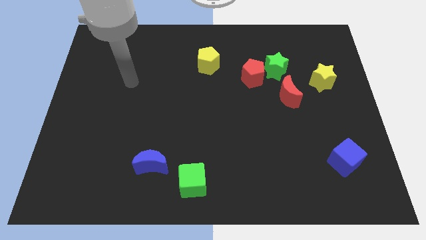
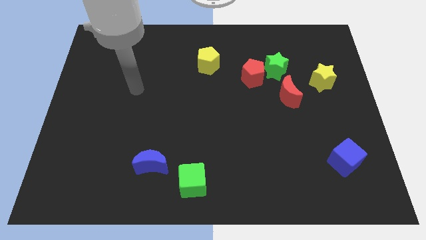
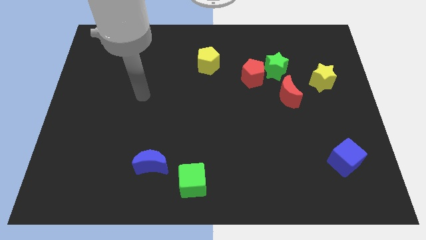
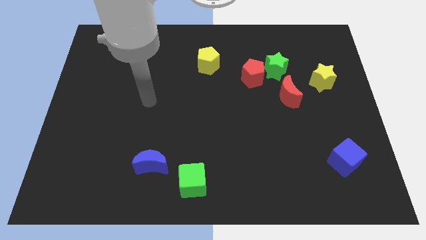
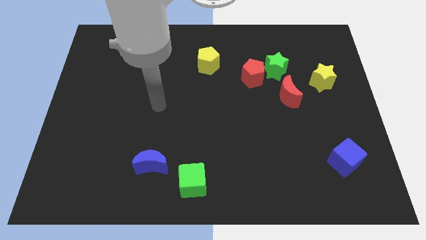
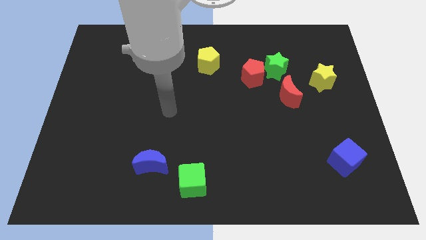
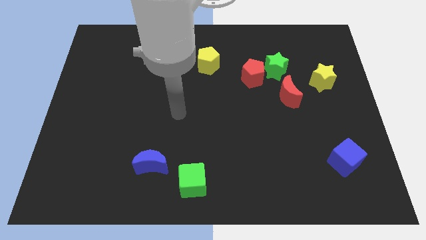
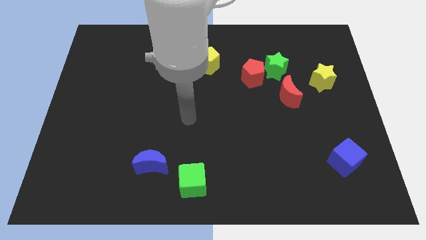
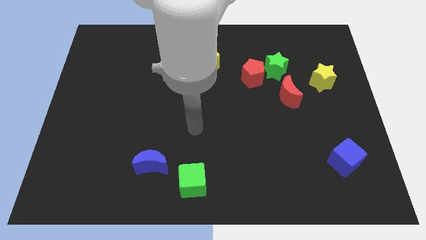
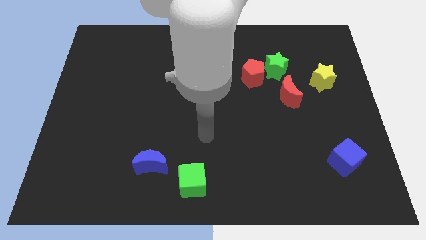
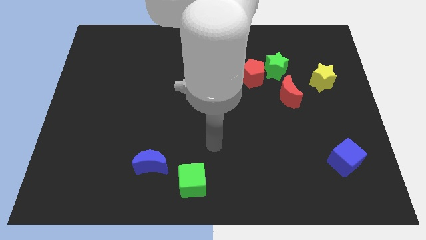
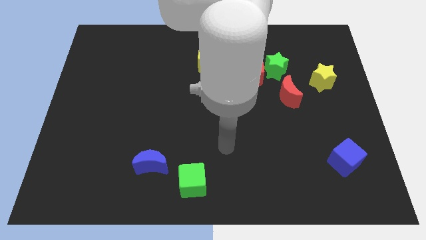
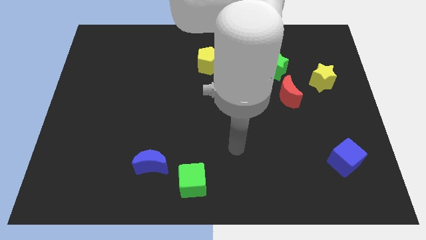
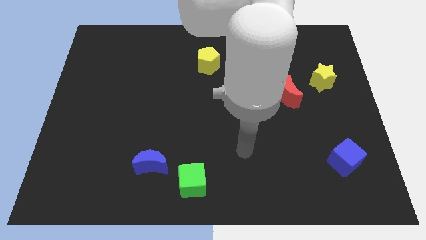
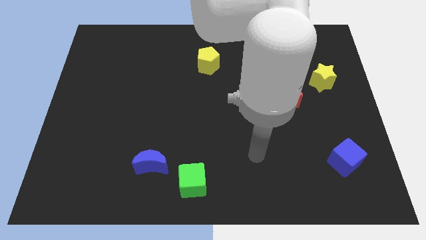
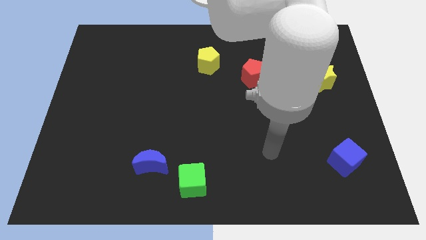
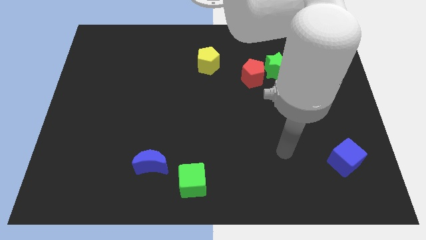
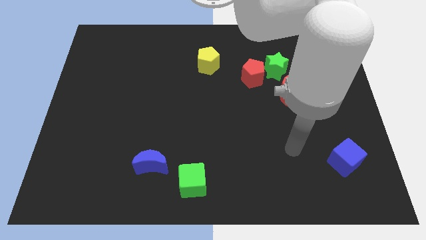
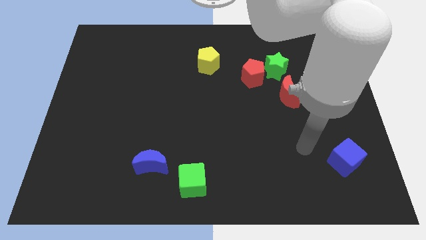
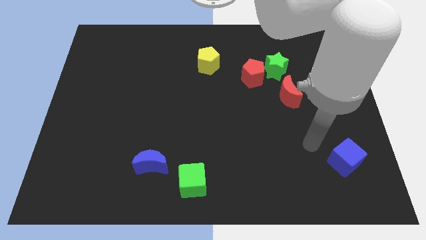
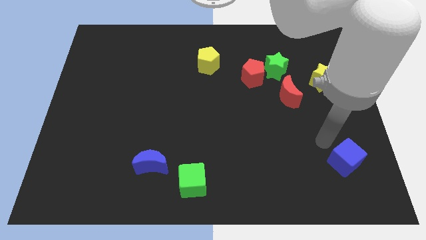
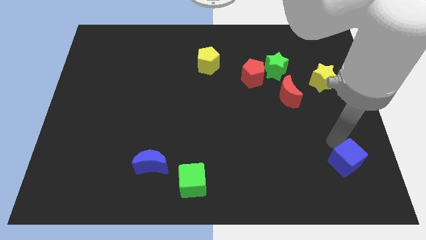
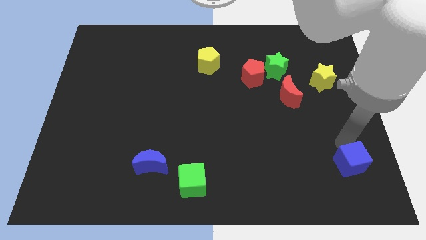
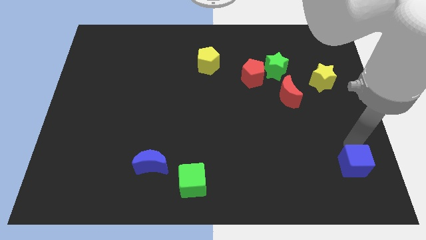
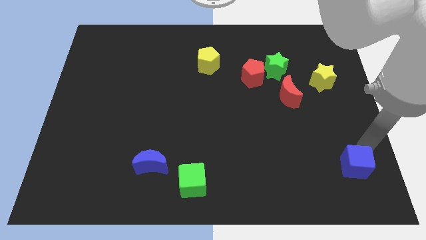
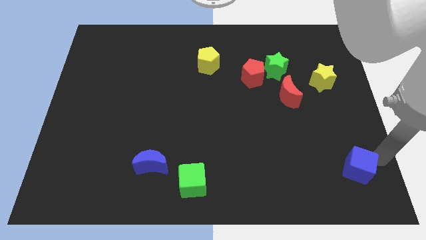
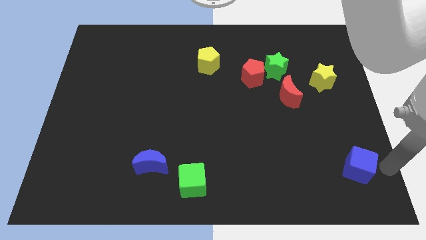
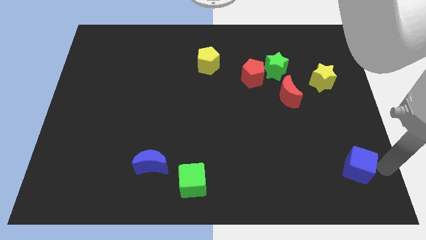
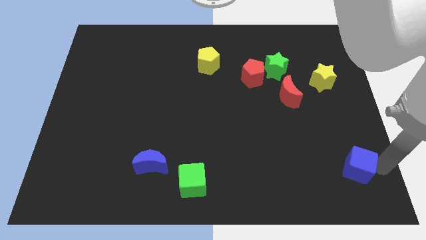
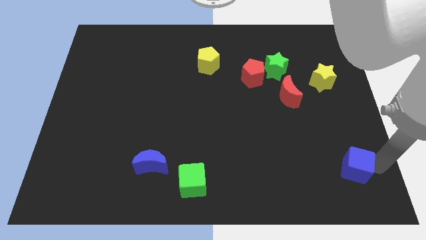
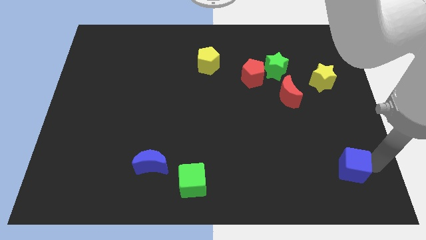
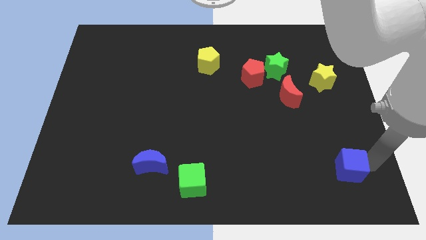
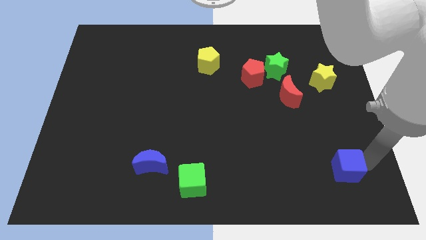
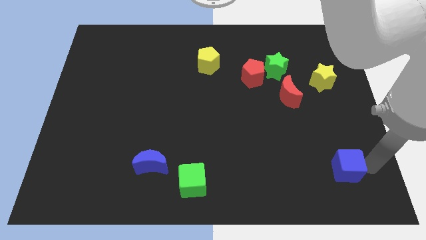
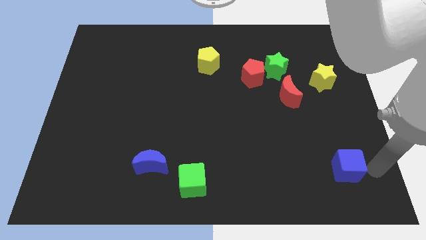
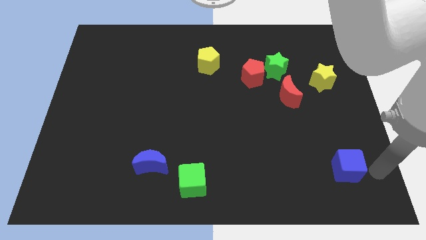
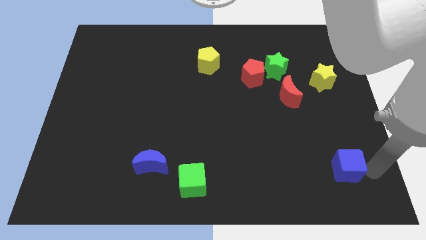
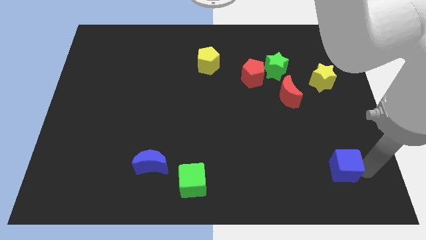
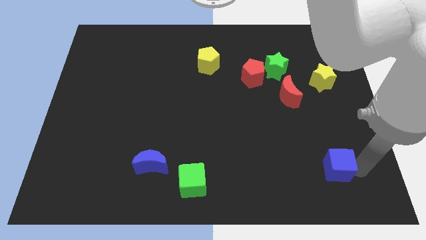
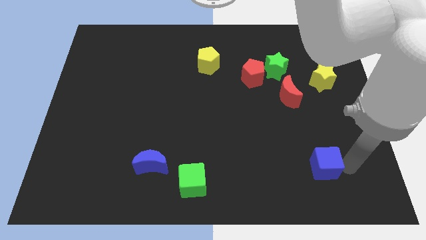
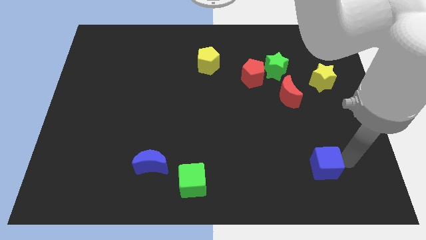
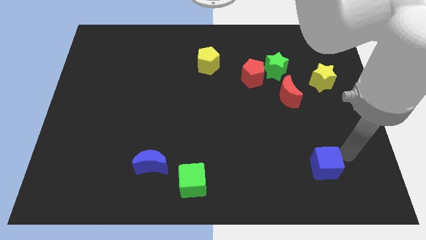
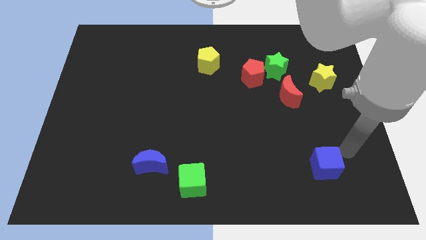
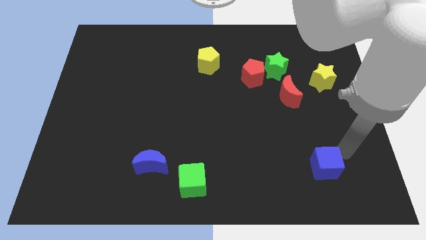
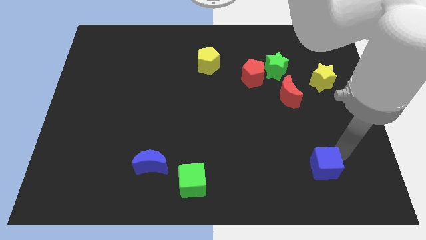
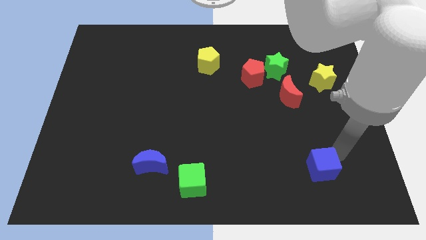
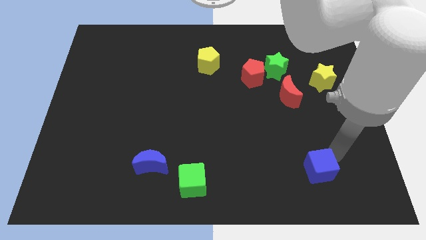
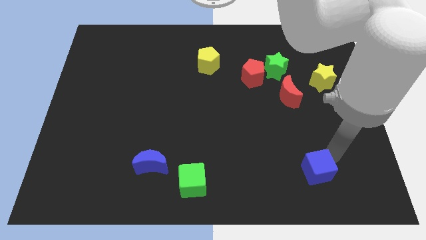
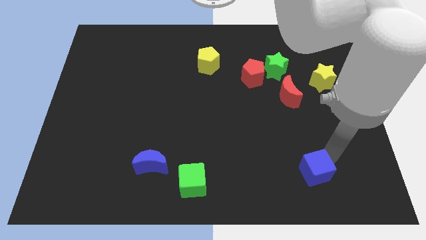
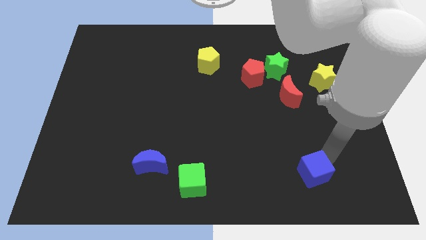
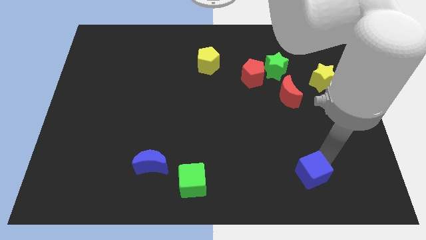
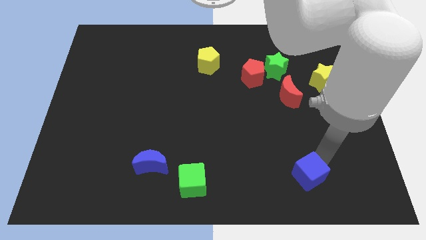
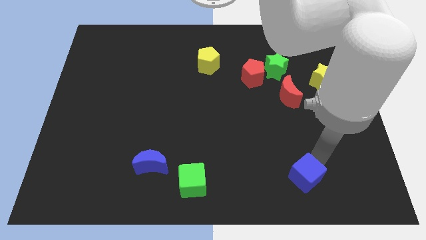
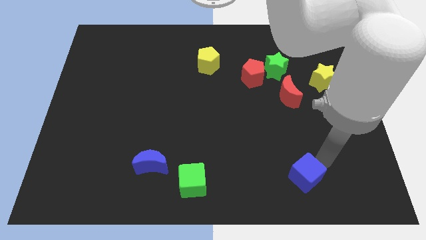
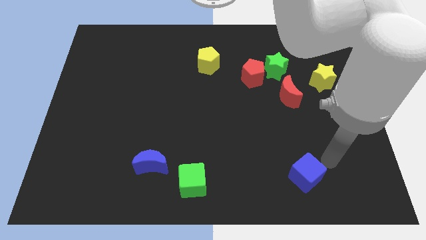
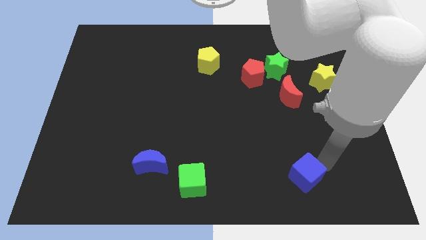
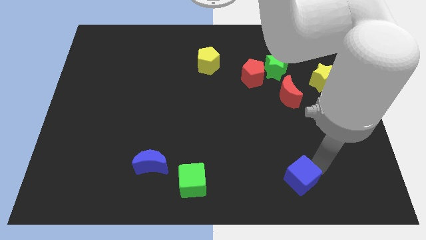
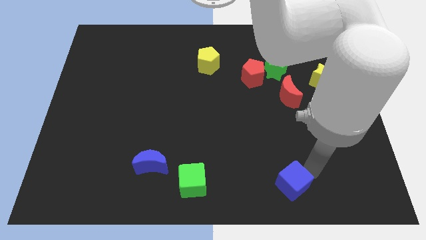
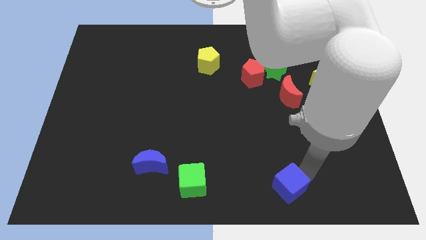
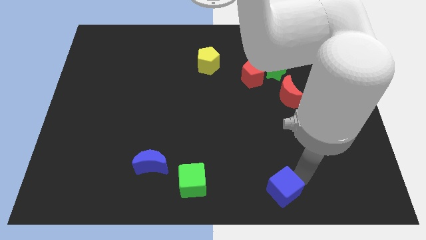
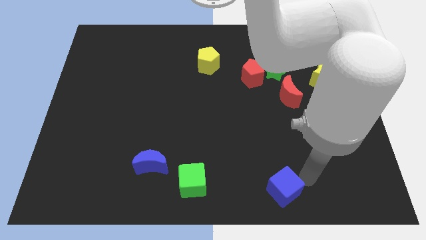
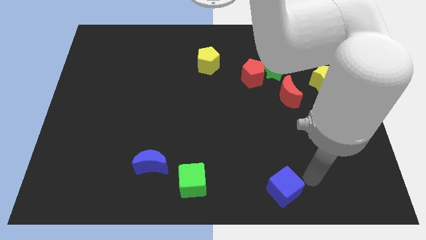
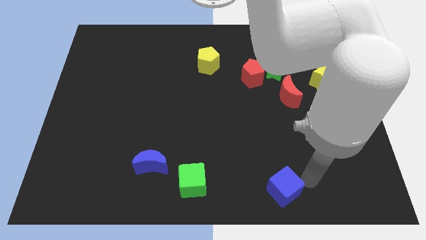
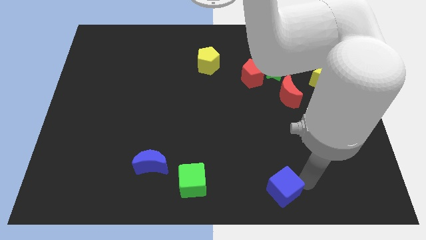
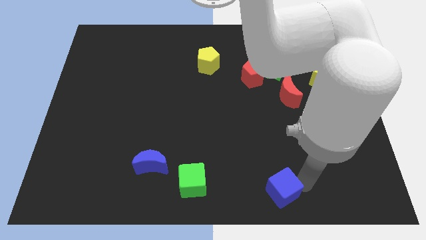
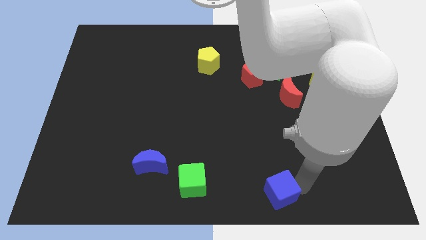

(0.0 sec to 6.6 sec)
put the blue cube to the bottom side

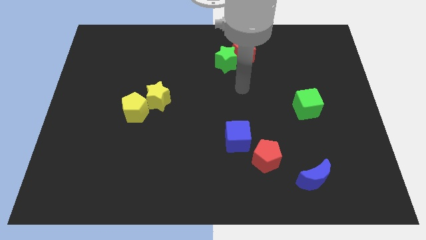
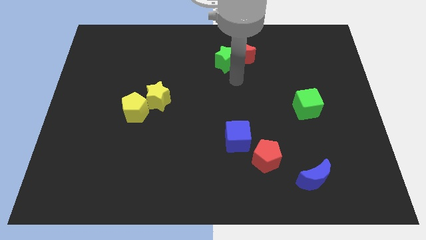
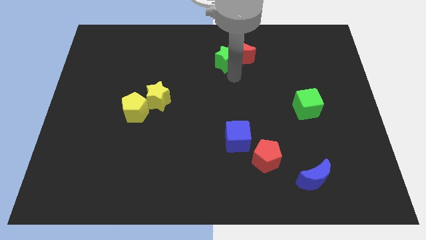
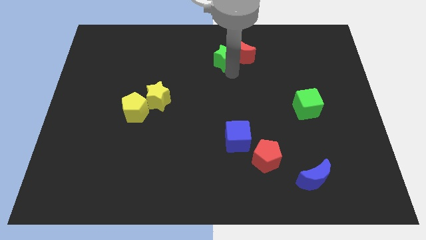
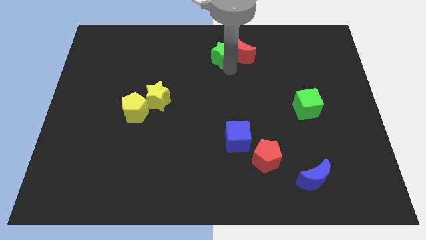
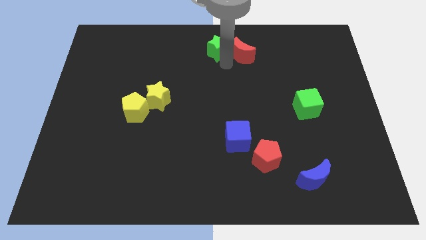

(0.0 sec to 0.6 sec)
push the green star to the towards your base
